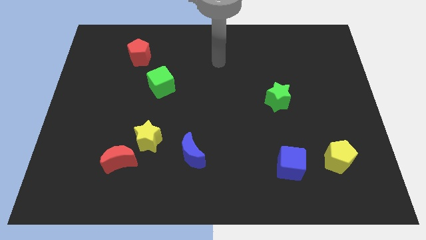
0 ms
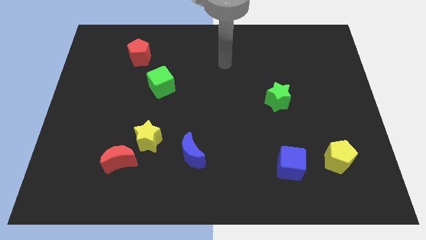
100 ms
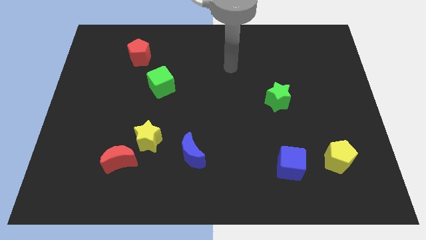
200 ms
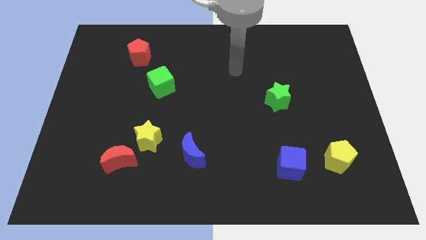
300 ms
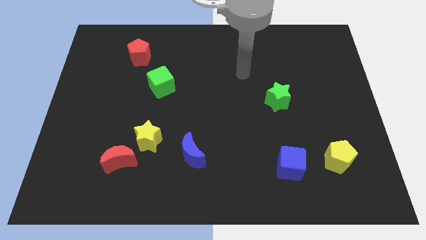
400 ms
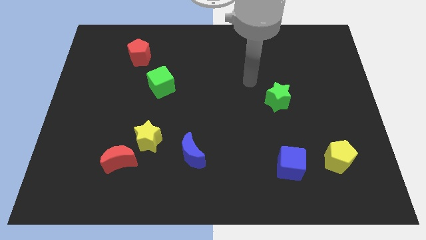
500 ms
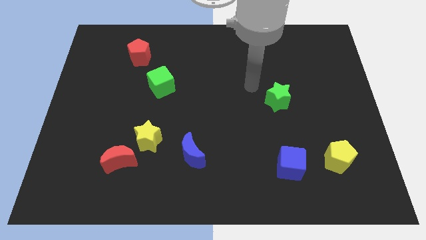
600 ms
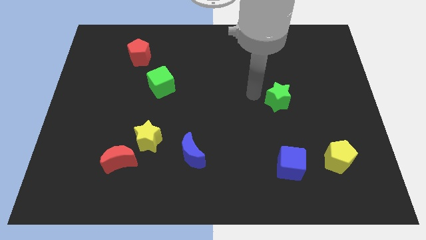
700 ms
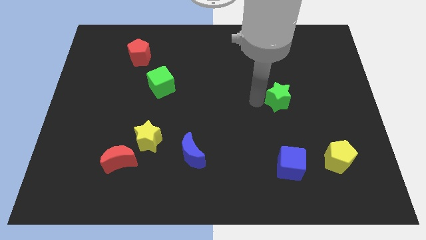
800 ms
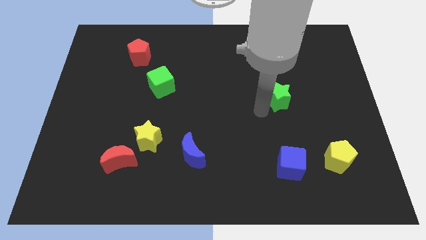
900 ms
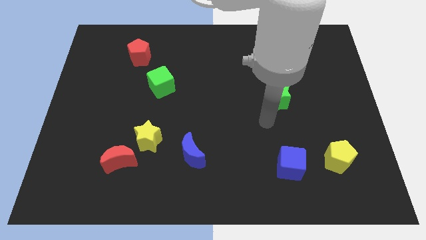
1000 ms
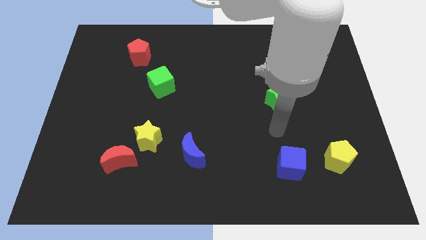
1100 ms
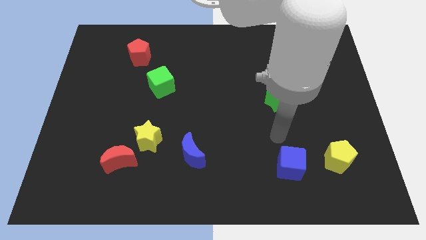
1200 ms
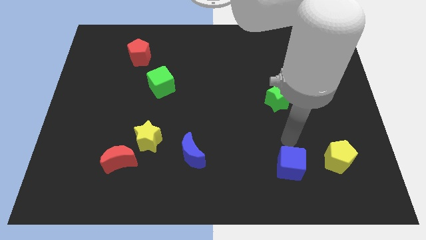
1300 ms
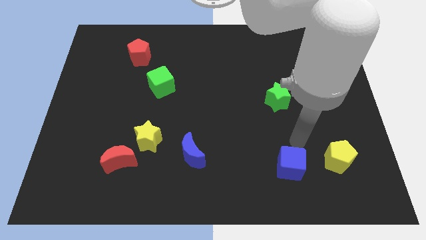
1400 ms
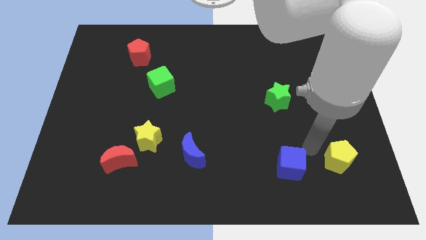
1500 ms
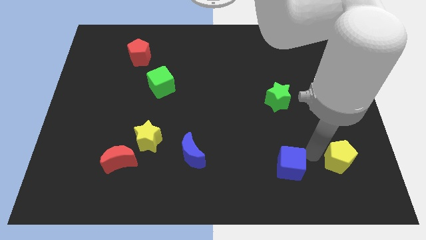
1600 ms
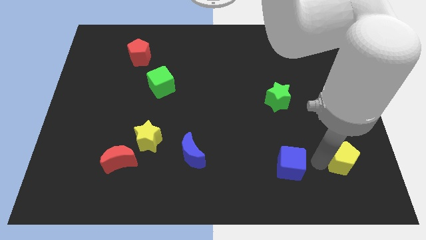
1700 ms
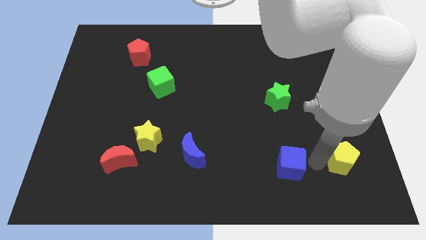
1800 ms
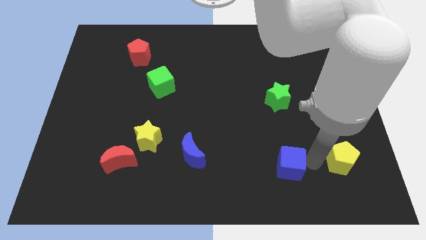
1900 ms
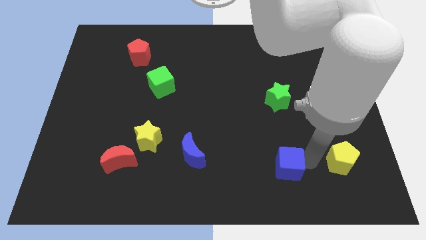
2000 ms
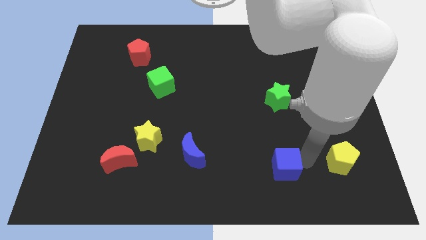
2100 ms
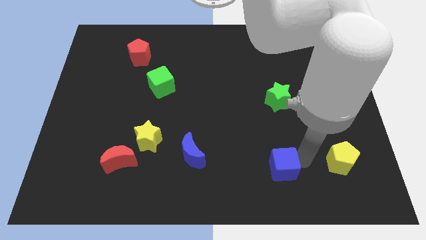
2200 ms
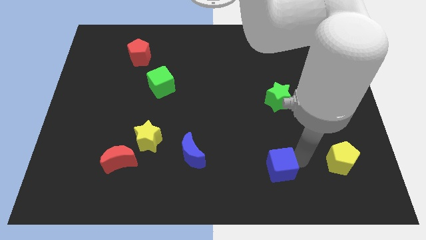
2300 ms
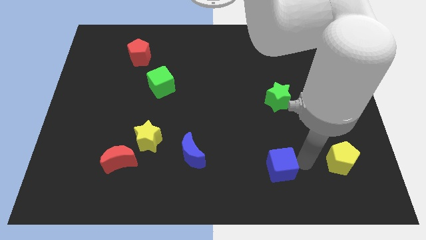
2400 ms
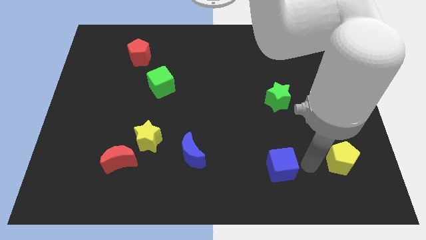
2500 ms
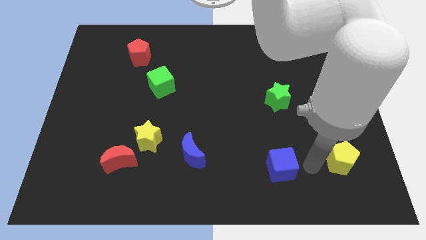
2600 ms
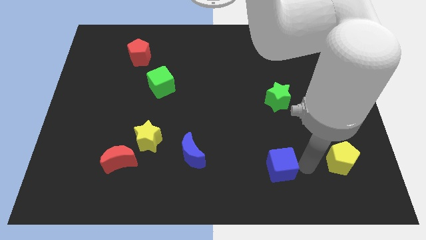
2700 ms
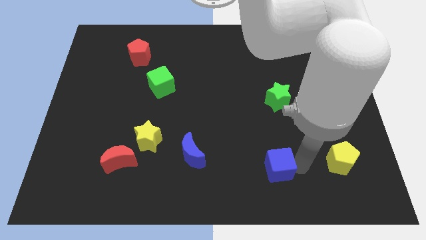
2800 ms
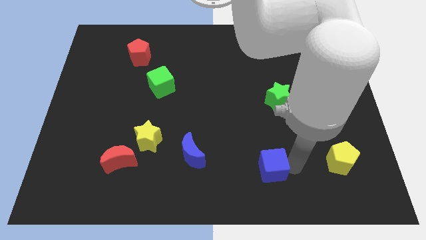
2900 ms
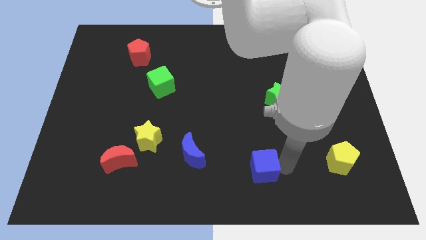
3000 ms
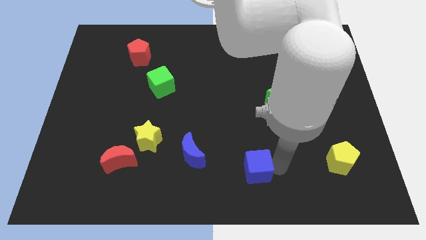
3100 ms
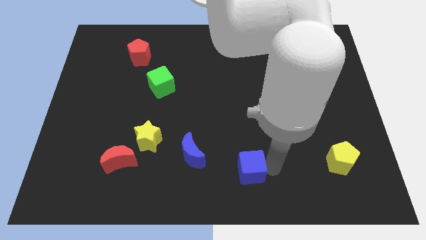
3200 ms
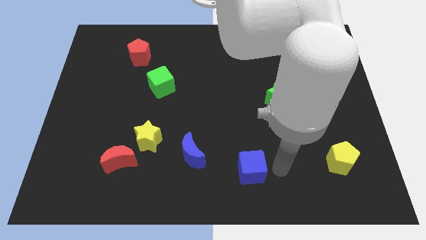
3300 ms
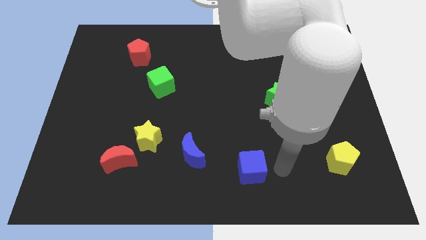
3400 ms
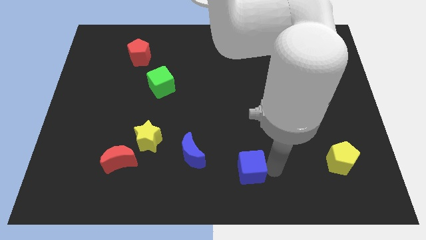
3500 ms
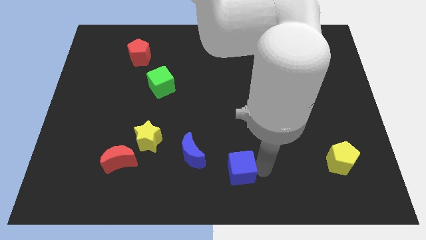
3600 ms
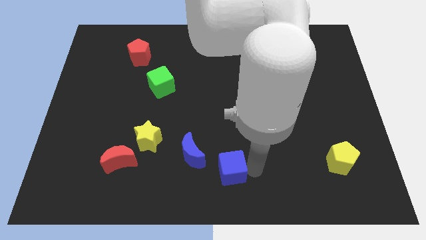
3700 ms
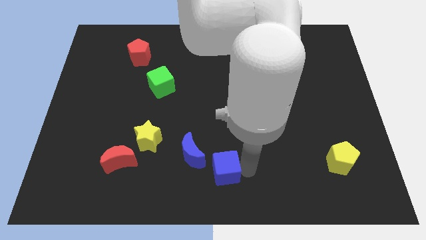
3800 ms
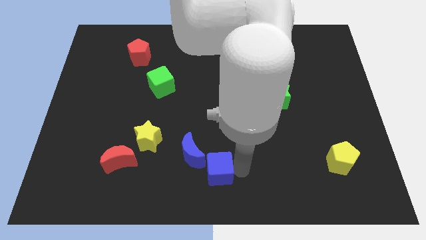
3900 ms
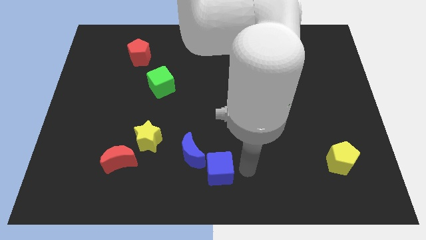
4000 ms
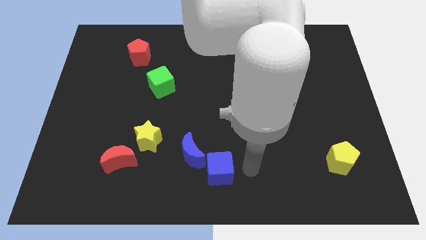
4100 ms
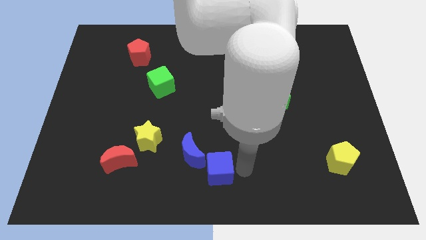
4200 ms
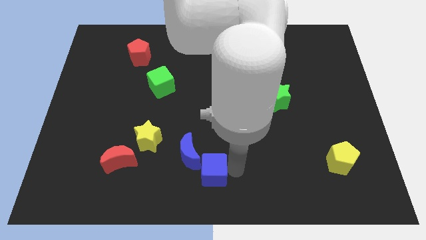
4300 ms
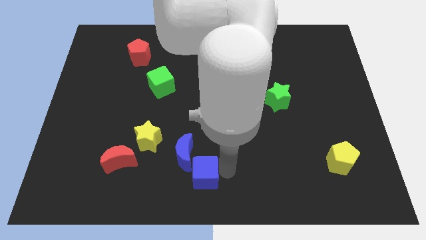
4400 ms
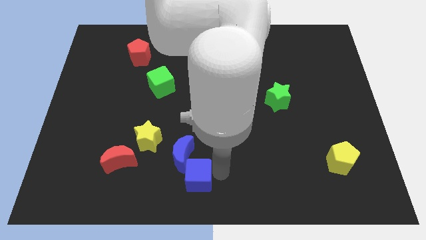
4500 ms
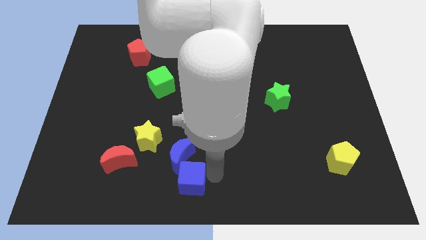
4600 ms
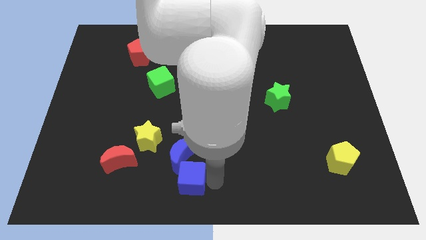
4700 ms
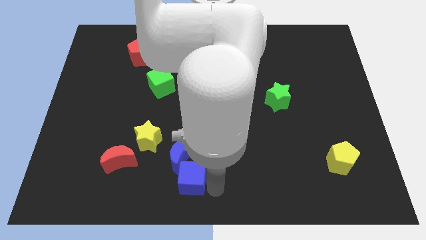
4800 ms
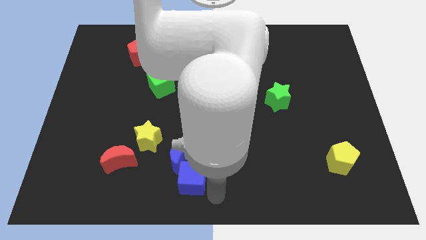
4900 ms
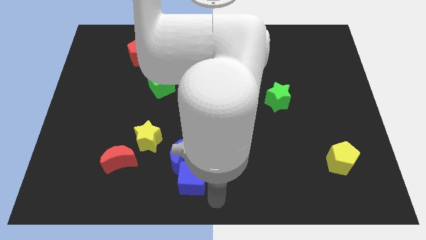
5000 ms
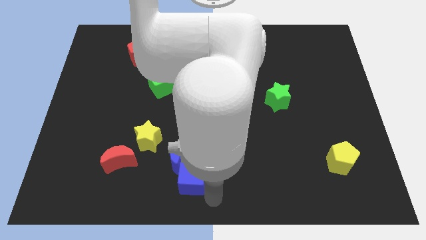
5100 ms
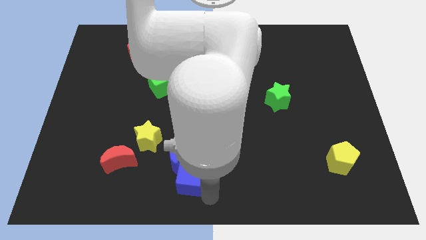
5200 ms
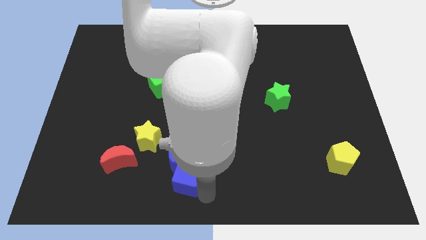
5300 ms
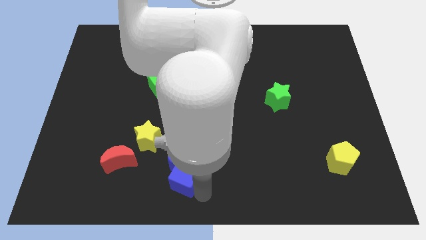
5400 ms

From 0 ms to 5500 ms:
push the blue cube diagonally down and to the right of the yellow star

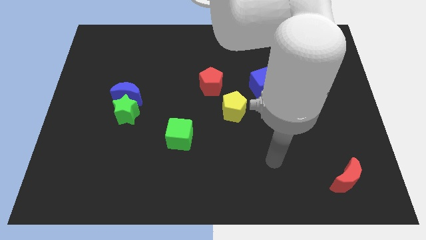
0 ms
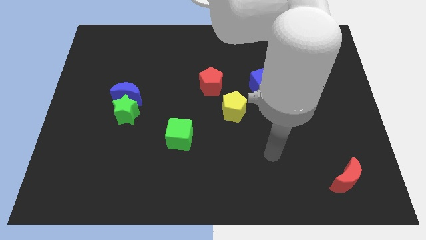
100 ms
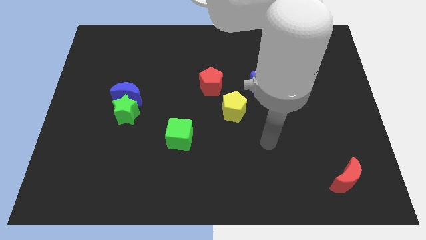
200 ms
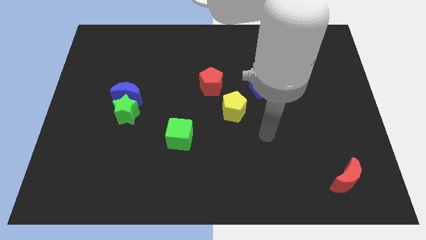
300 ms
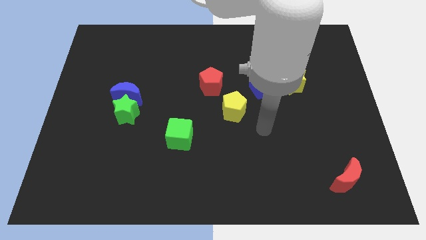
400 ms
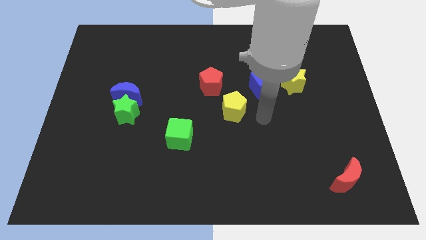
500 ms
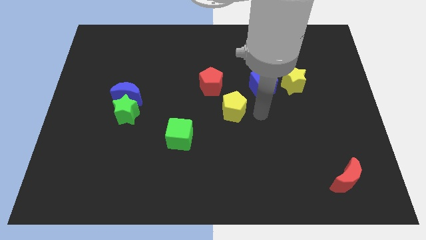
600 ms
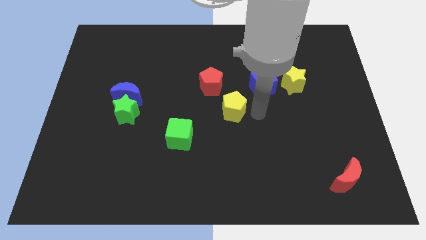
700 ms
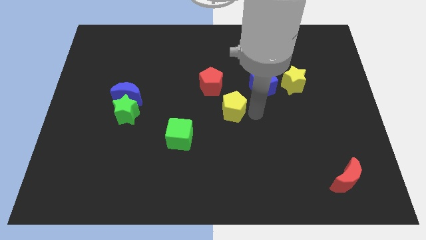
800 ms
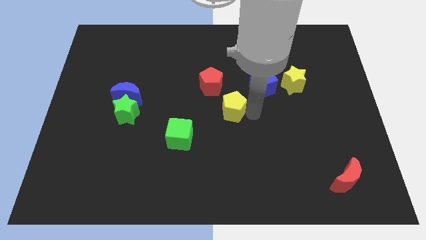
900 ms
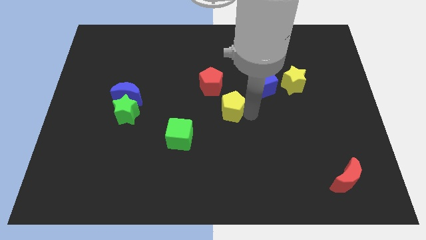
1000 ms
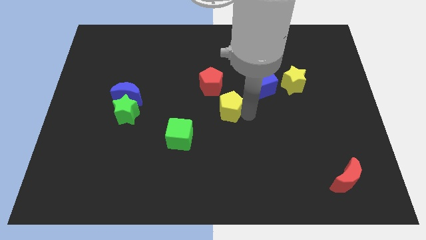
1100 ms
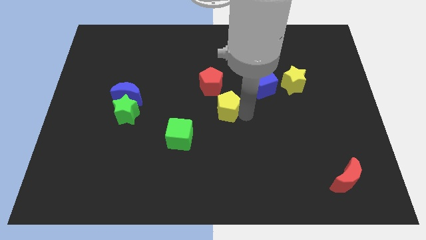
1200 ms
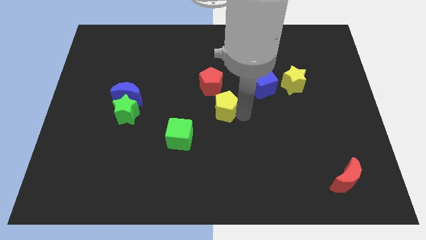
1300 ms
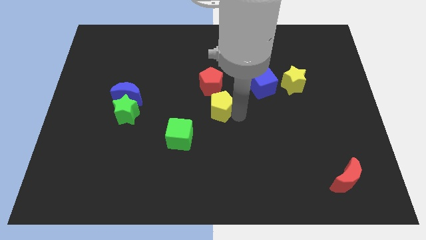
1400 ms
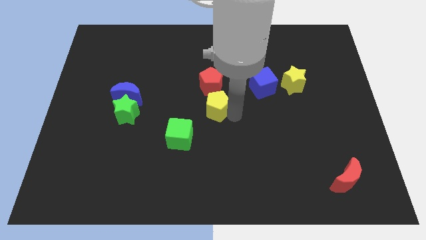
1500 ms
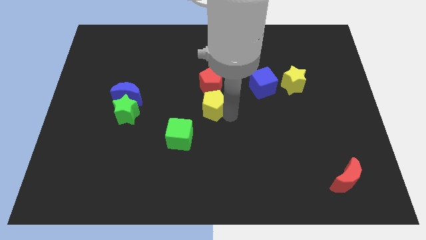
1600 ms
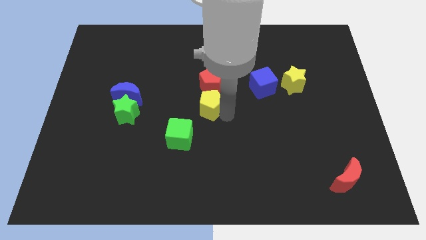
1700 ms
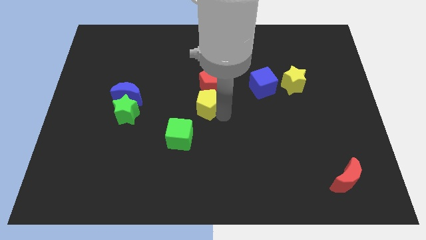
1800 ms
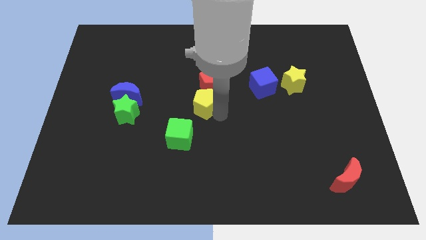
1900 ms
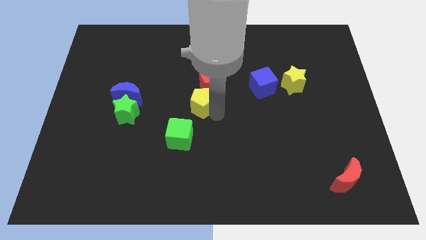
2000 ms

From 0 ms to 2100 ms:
move the yellow pentagon above the green cube
